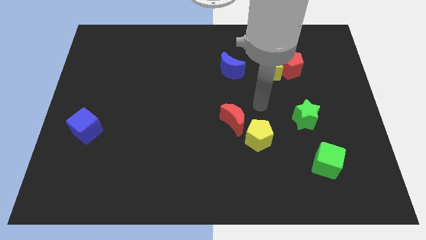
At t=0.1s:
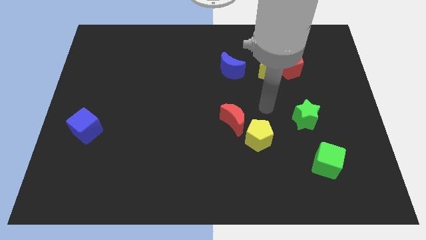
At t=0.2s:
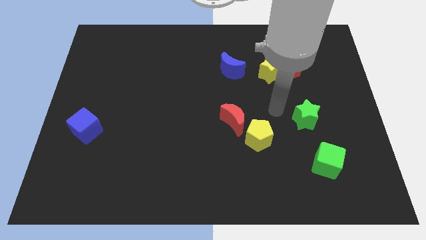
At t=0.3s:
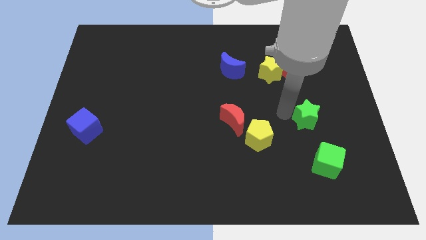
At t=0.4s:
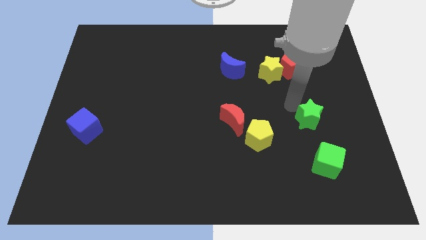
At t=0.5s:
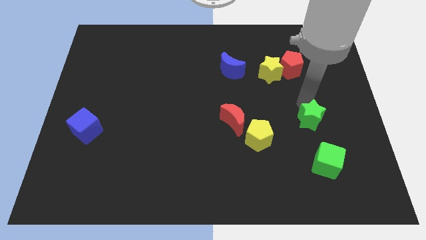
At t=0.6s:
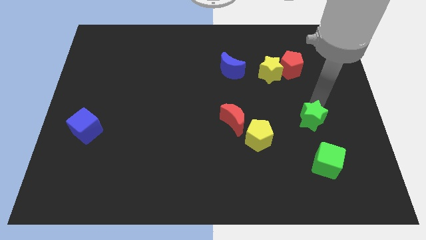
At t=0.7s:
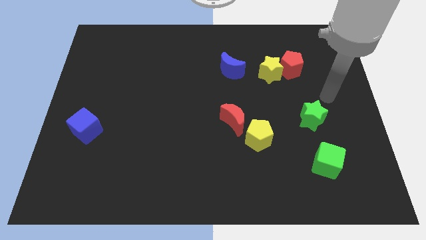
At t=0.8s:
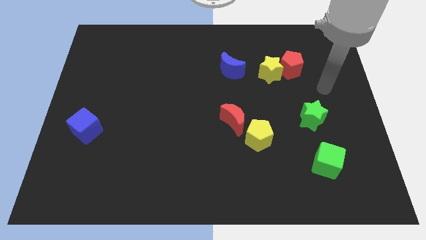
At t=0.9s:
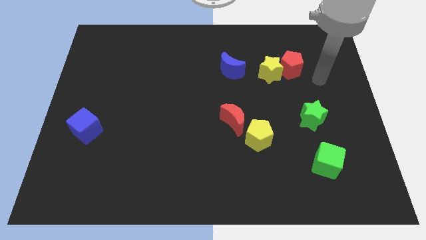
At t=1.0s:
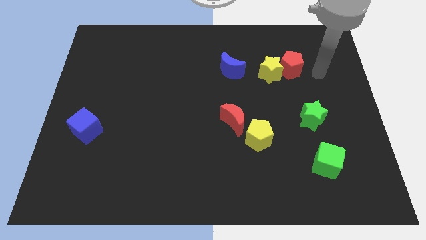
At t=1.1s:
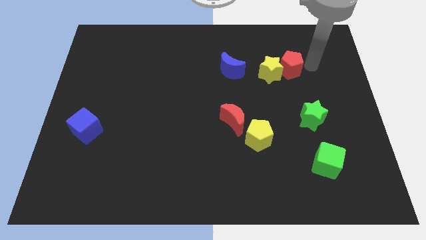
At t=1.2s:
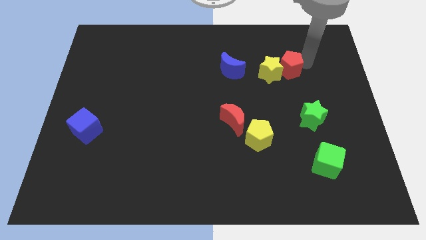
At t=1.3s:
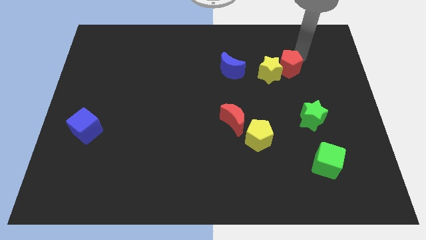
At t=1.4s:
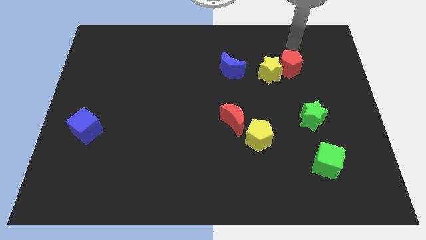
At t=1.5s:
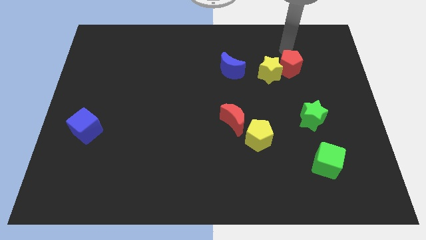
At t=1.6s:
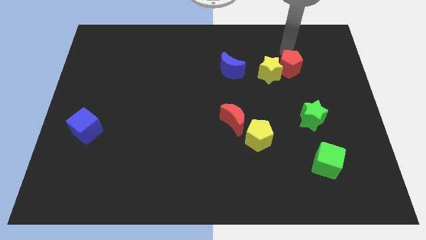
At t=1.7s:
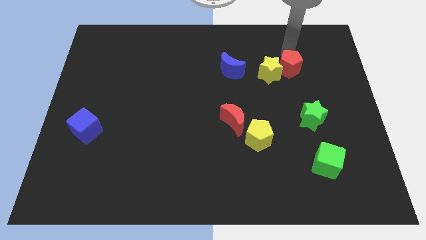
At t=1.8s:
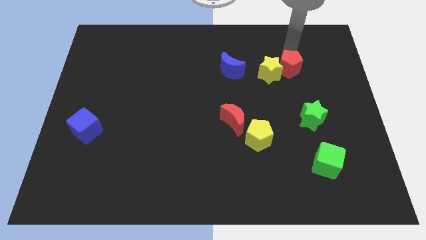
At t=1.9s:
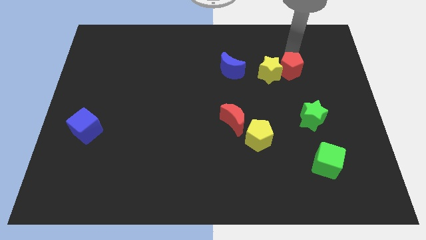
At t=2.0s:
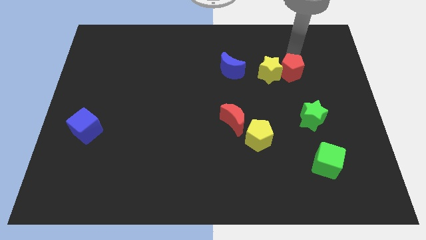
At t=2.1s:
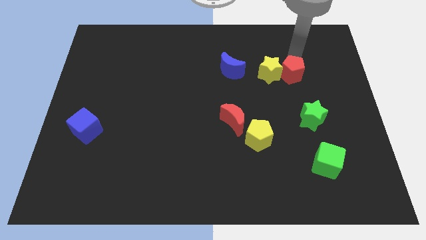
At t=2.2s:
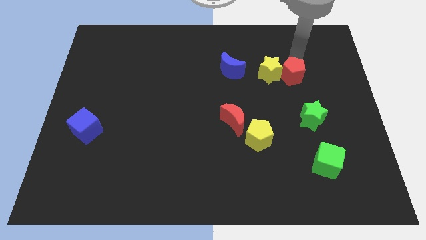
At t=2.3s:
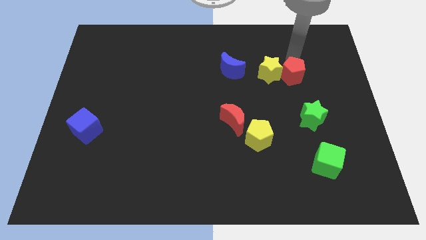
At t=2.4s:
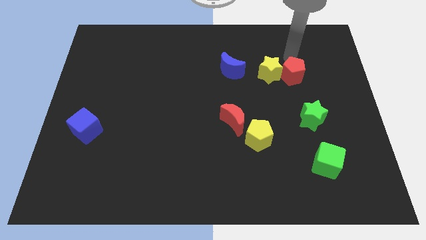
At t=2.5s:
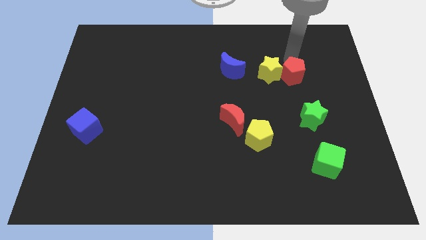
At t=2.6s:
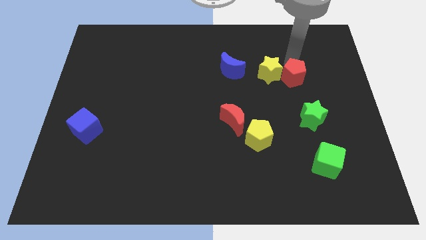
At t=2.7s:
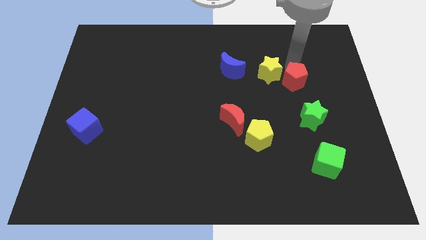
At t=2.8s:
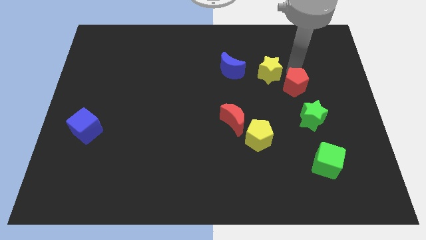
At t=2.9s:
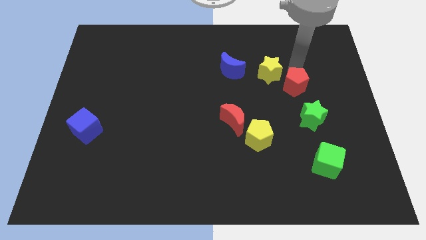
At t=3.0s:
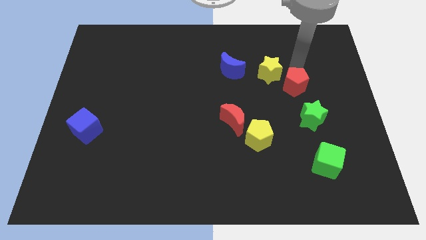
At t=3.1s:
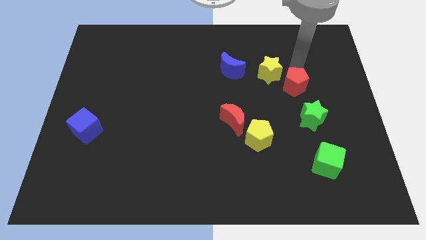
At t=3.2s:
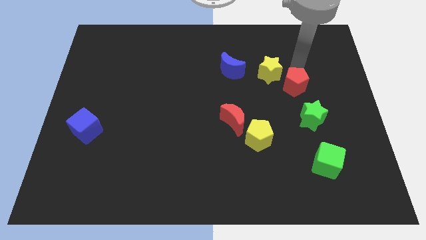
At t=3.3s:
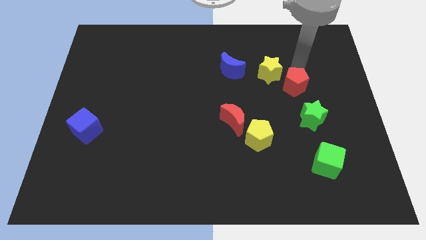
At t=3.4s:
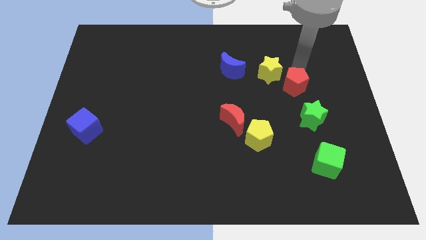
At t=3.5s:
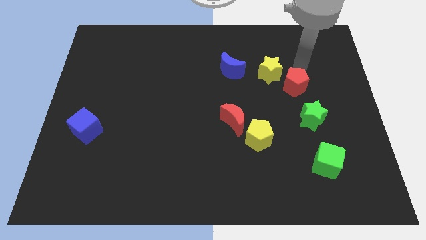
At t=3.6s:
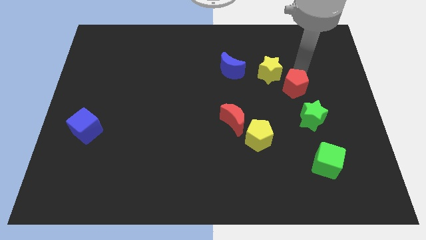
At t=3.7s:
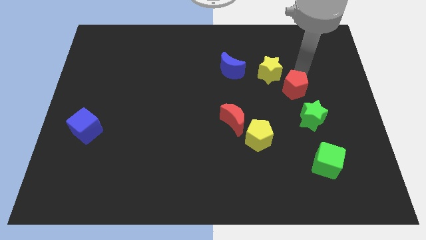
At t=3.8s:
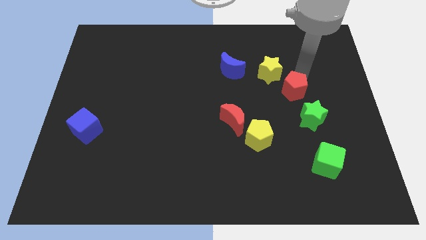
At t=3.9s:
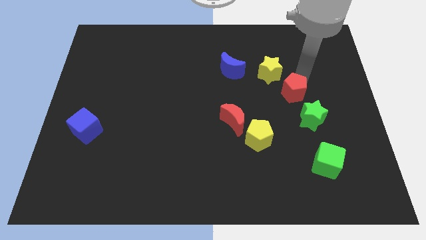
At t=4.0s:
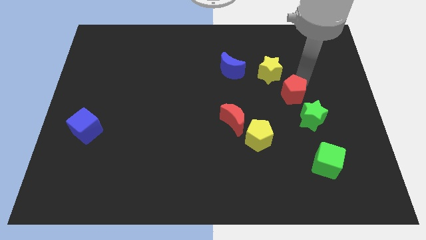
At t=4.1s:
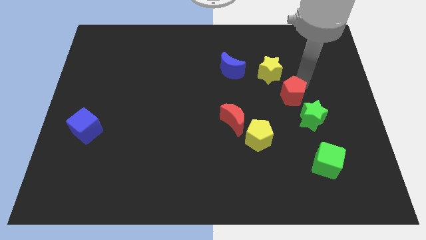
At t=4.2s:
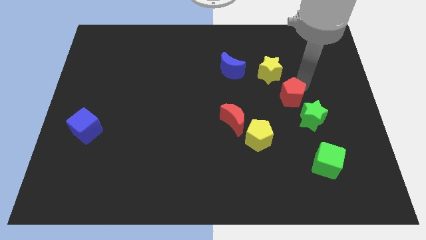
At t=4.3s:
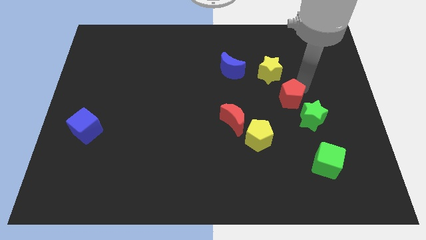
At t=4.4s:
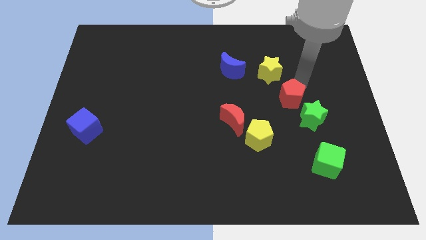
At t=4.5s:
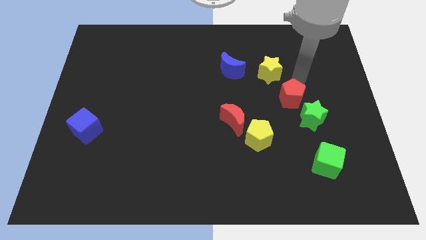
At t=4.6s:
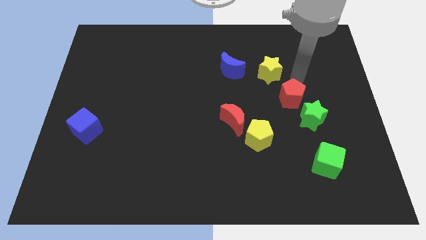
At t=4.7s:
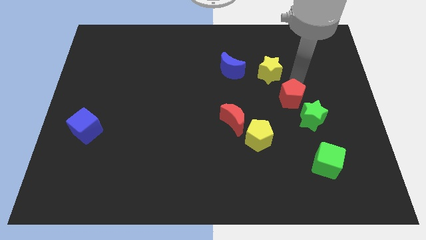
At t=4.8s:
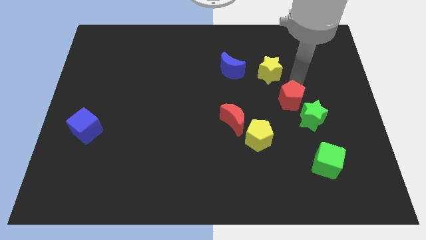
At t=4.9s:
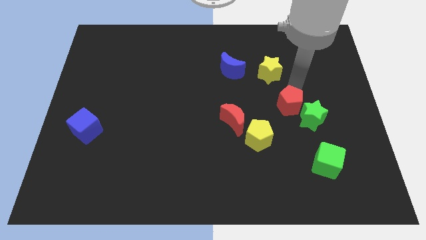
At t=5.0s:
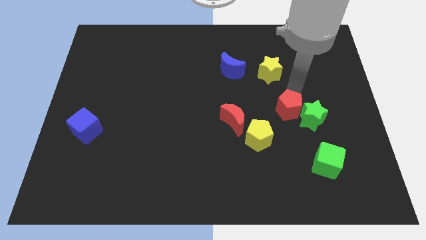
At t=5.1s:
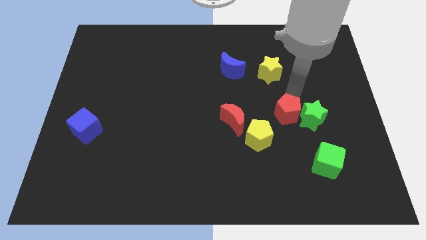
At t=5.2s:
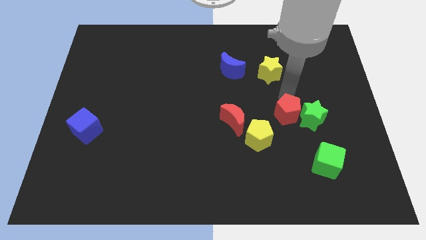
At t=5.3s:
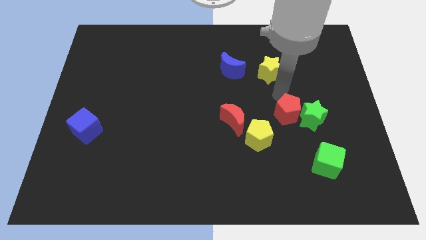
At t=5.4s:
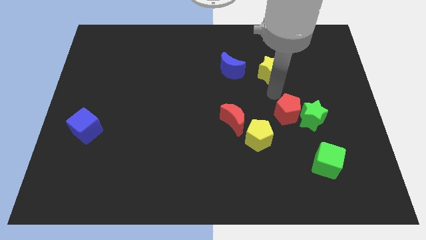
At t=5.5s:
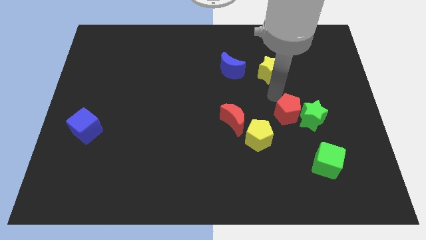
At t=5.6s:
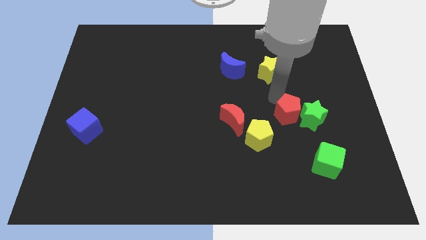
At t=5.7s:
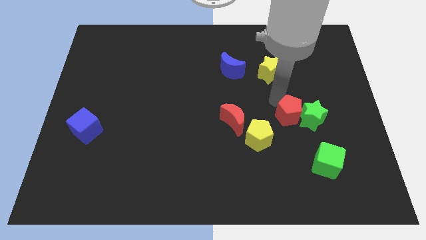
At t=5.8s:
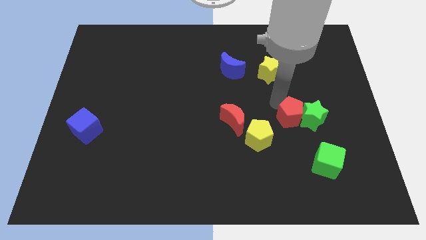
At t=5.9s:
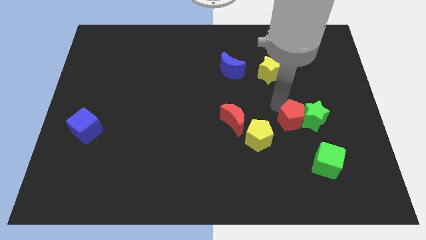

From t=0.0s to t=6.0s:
put the red pentagon to the right side of the yellow pentagon

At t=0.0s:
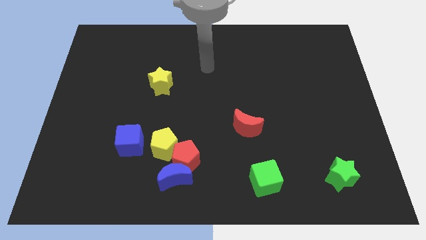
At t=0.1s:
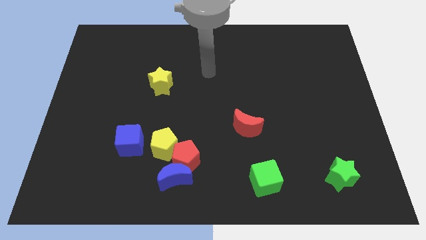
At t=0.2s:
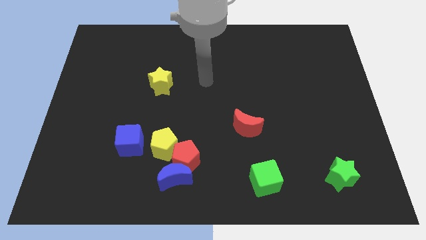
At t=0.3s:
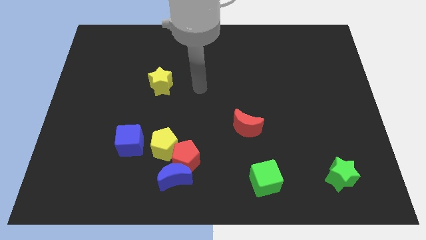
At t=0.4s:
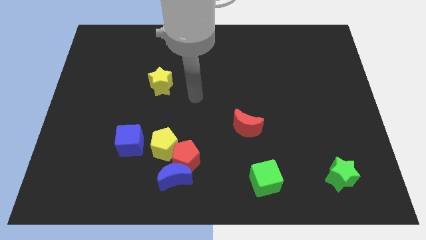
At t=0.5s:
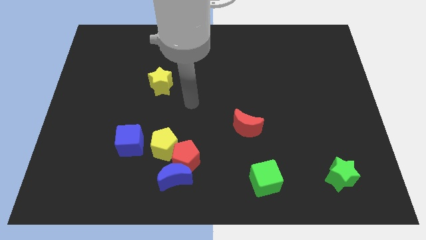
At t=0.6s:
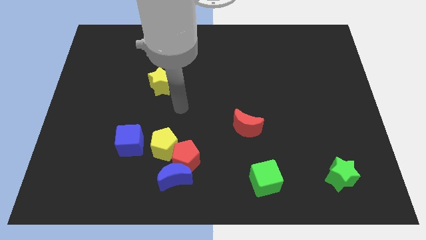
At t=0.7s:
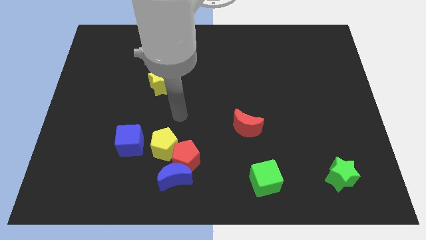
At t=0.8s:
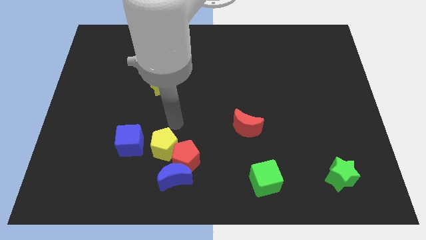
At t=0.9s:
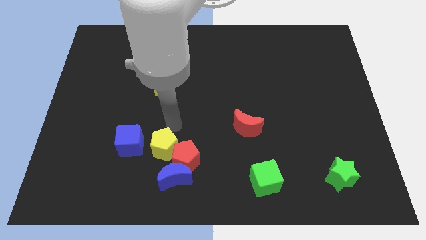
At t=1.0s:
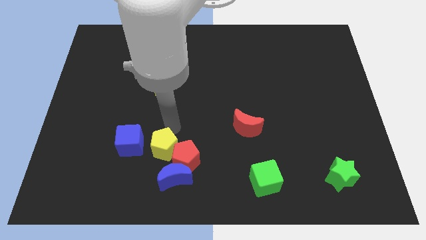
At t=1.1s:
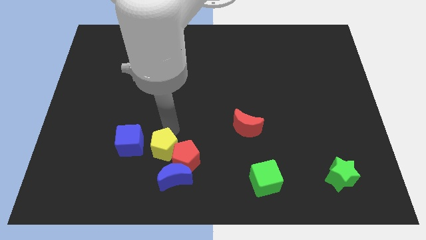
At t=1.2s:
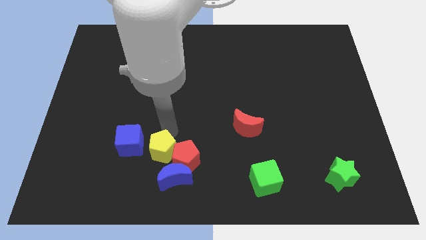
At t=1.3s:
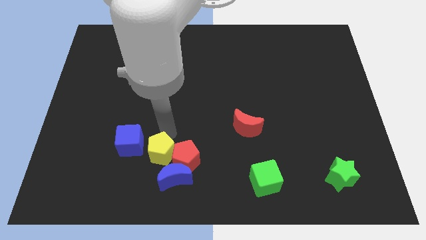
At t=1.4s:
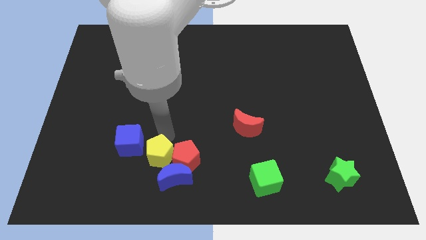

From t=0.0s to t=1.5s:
slide the yellow pentagon diagonally down and to the left of the red pentagon
